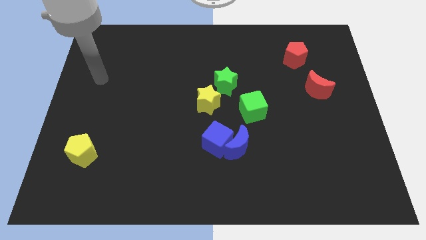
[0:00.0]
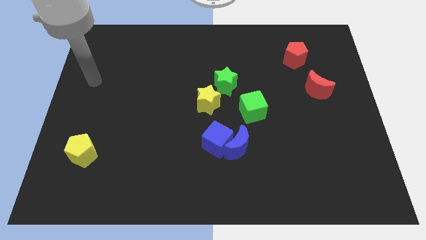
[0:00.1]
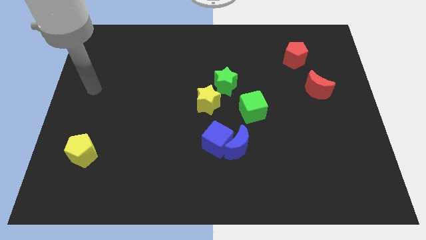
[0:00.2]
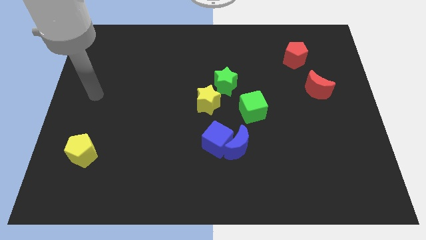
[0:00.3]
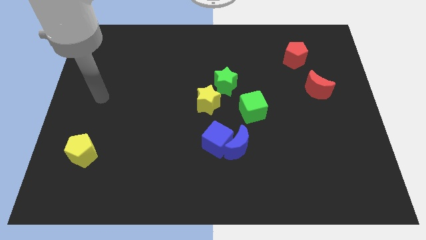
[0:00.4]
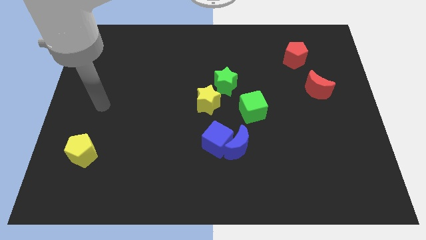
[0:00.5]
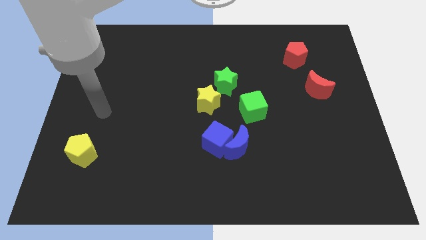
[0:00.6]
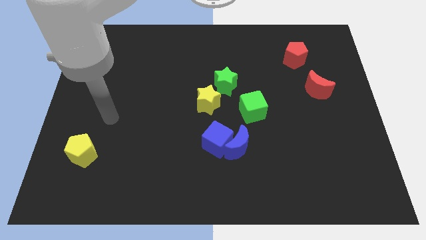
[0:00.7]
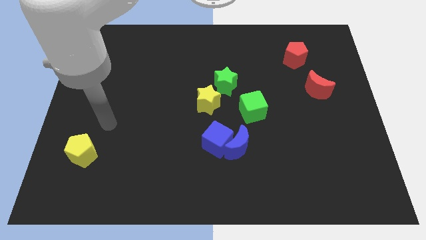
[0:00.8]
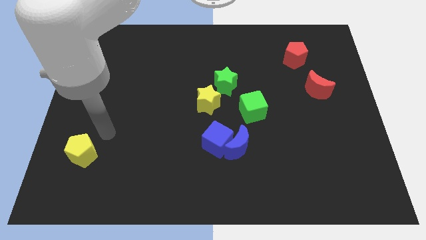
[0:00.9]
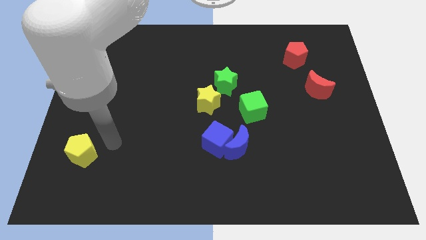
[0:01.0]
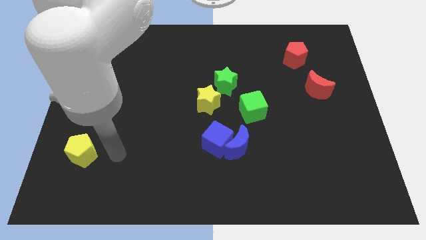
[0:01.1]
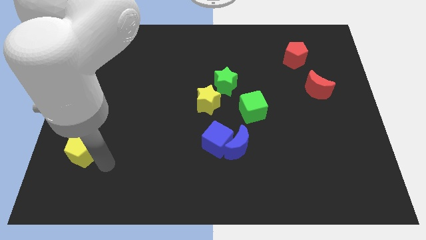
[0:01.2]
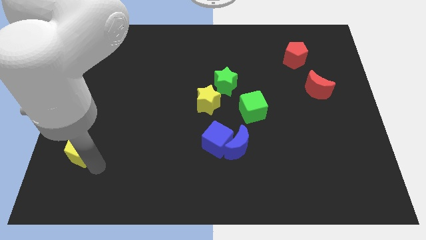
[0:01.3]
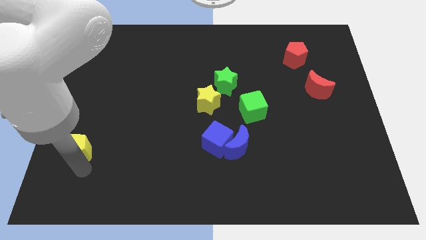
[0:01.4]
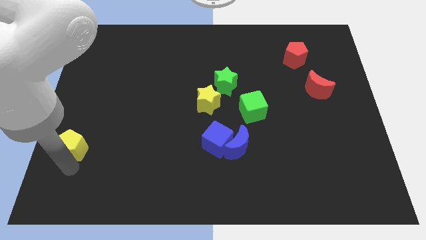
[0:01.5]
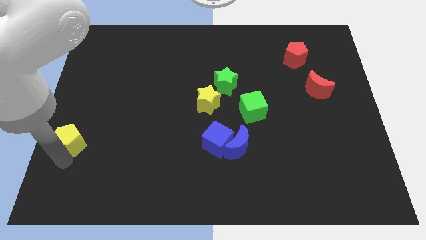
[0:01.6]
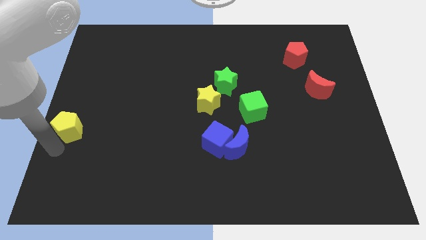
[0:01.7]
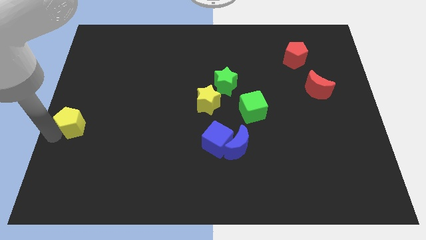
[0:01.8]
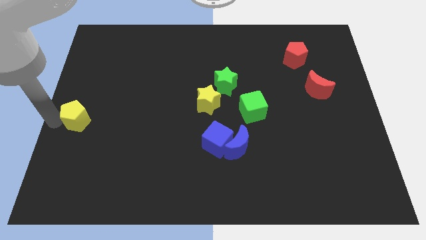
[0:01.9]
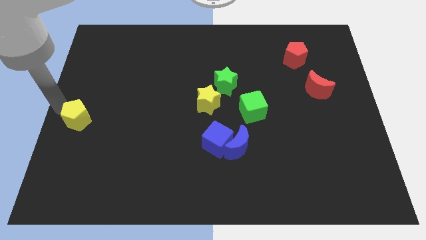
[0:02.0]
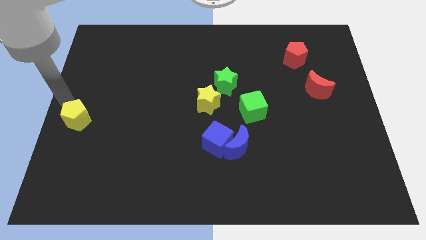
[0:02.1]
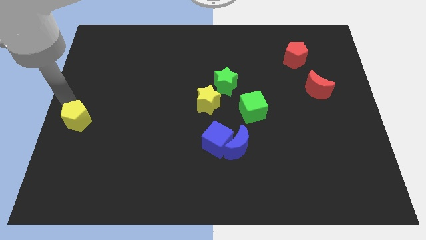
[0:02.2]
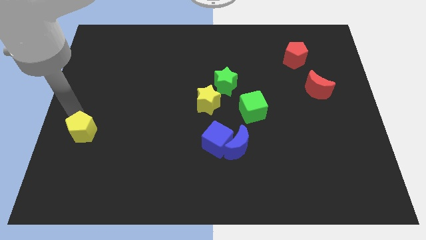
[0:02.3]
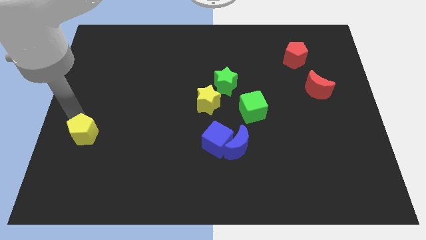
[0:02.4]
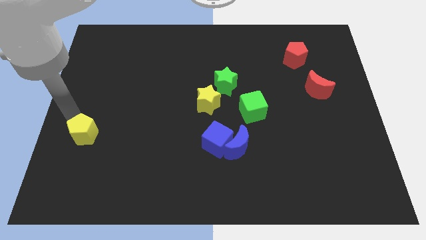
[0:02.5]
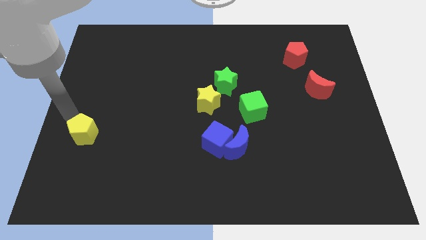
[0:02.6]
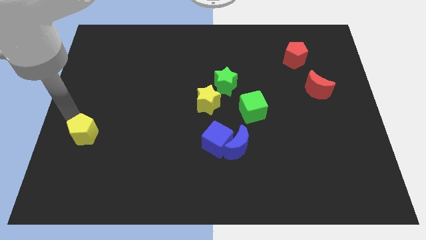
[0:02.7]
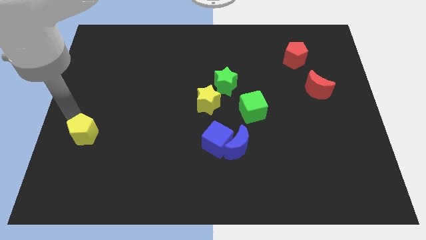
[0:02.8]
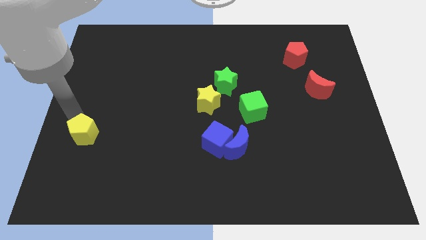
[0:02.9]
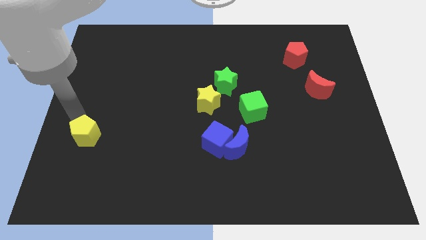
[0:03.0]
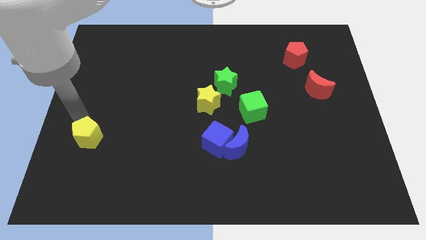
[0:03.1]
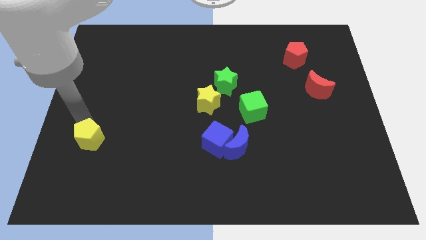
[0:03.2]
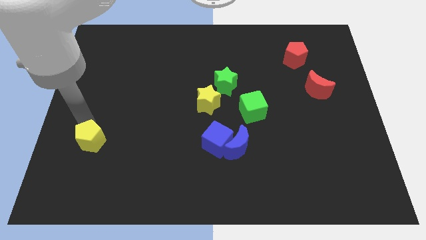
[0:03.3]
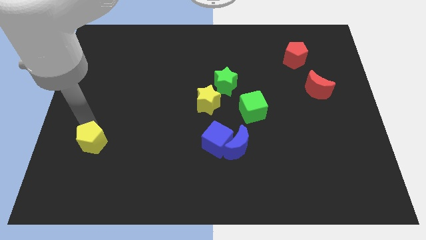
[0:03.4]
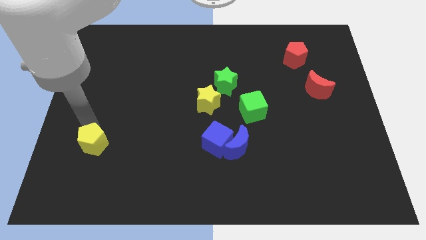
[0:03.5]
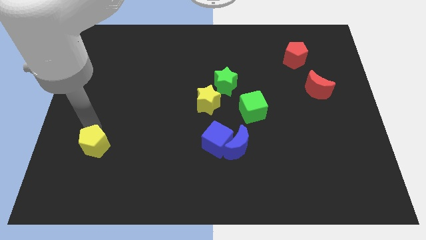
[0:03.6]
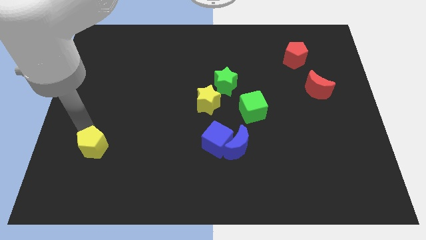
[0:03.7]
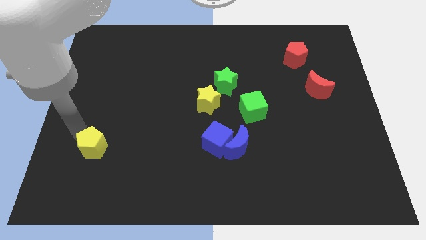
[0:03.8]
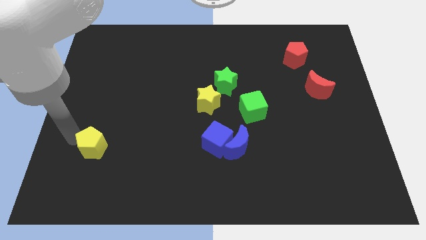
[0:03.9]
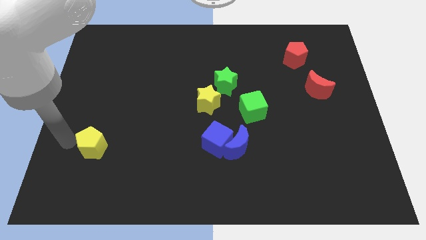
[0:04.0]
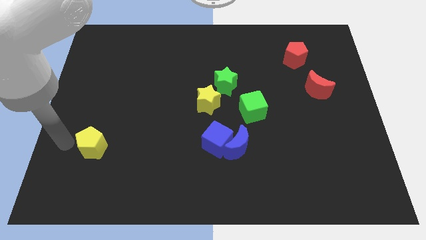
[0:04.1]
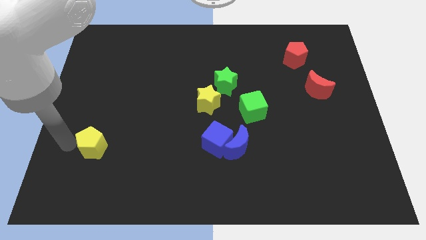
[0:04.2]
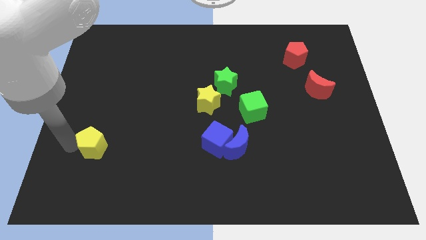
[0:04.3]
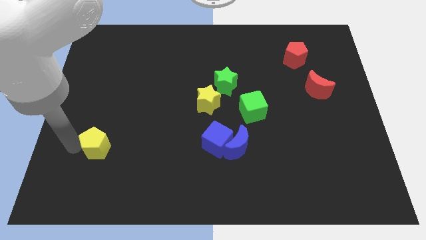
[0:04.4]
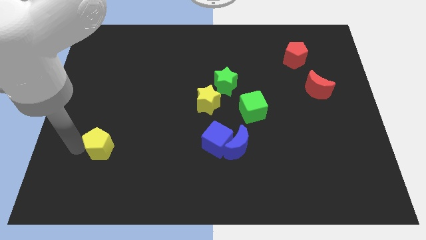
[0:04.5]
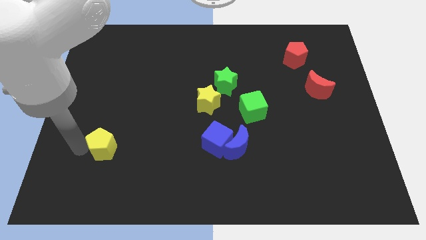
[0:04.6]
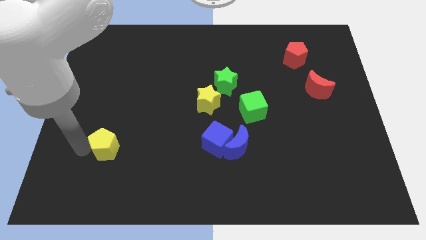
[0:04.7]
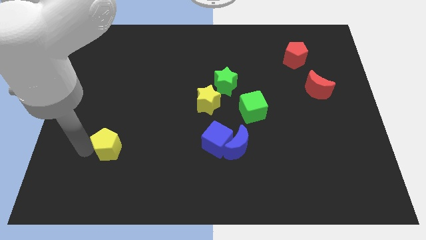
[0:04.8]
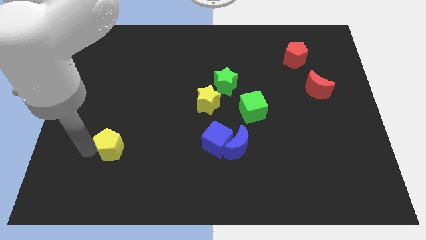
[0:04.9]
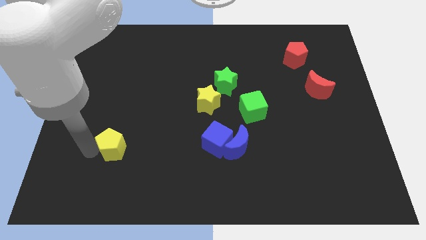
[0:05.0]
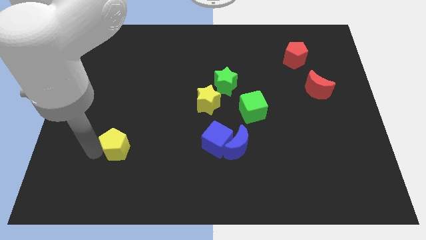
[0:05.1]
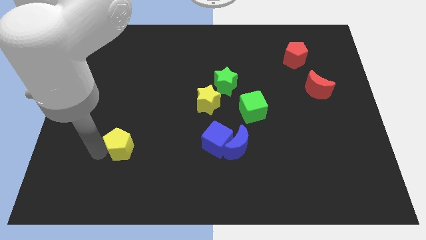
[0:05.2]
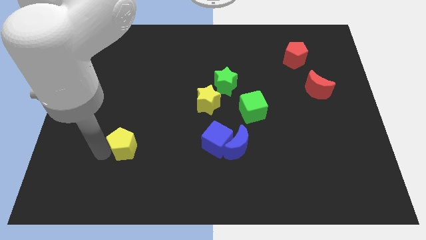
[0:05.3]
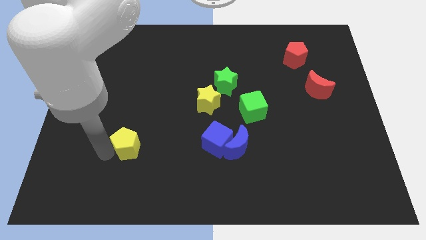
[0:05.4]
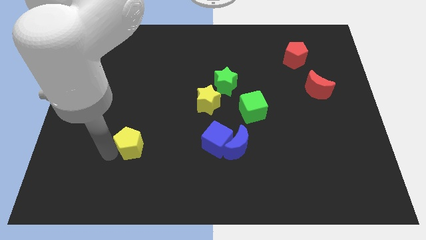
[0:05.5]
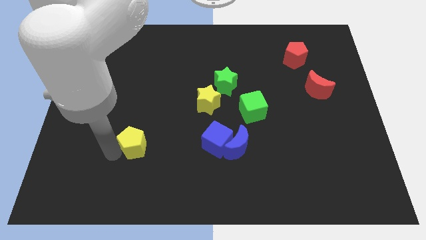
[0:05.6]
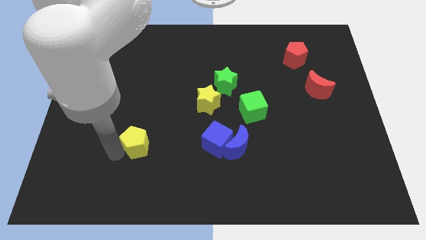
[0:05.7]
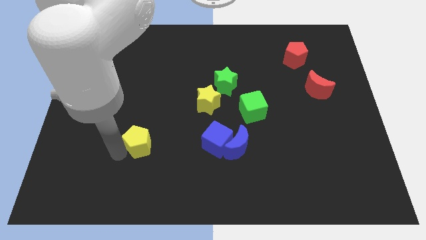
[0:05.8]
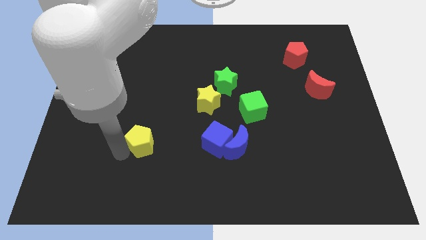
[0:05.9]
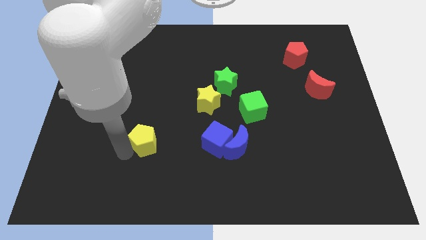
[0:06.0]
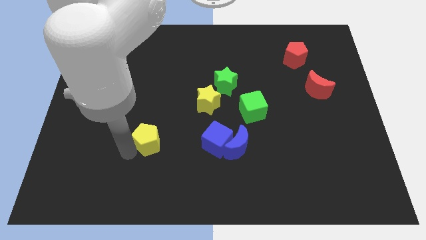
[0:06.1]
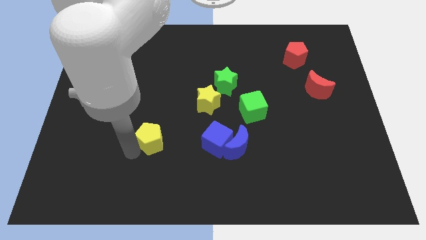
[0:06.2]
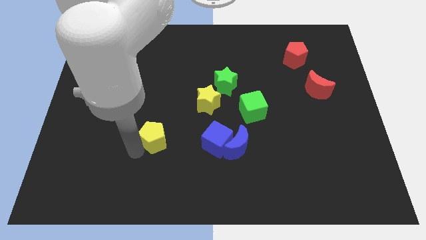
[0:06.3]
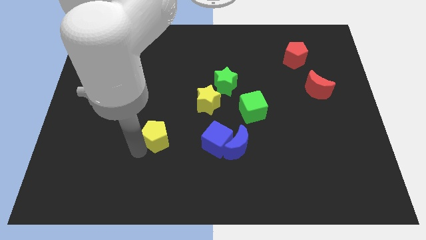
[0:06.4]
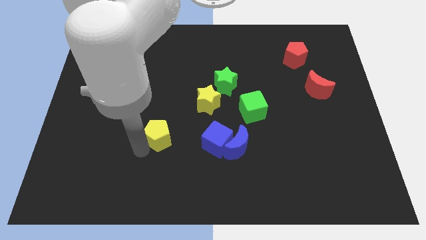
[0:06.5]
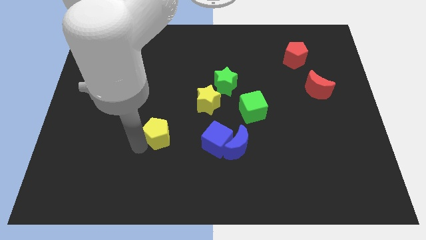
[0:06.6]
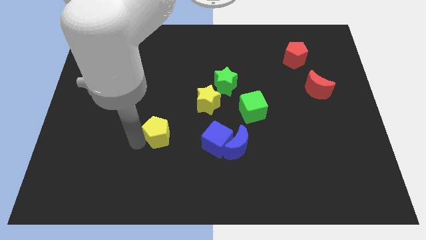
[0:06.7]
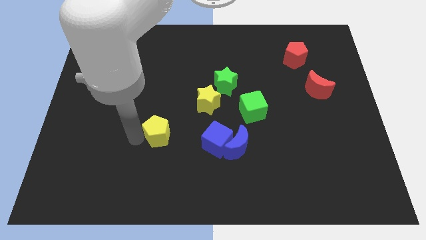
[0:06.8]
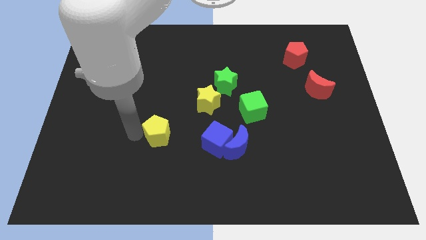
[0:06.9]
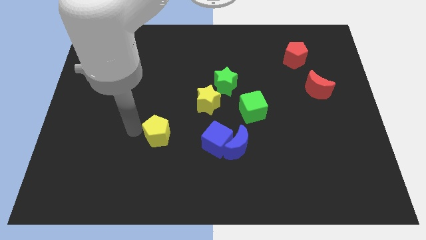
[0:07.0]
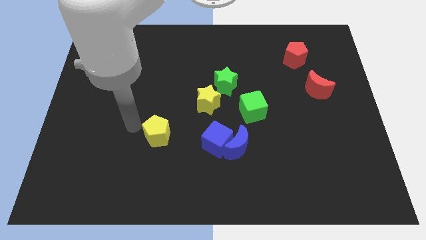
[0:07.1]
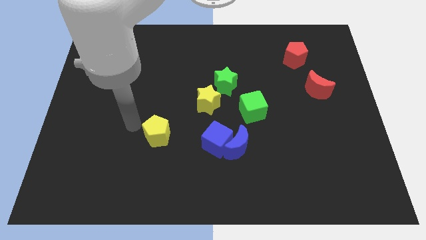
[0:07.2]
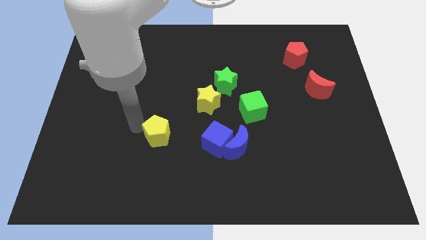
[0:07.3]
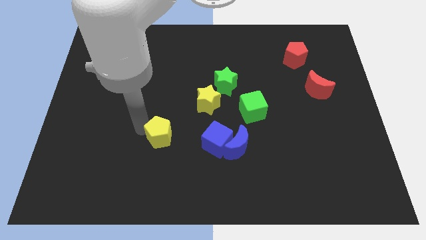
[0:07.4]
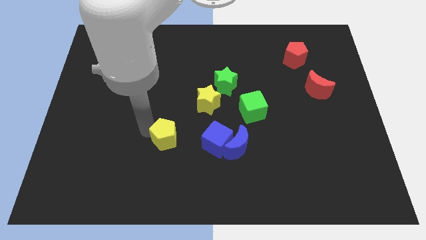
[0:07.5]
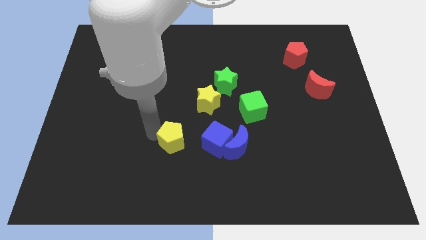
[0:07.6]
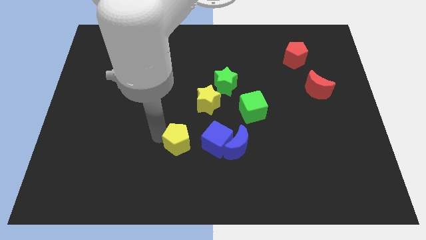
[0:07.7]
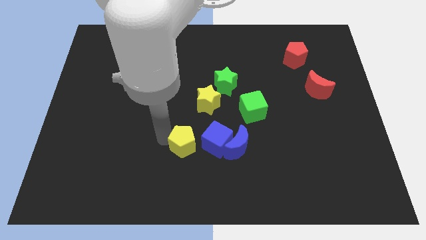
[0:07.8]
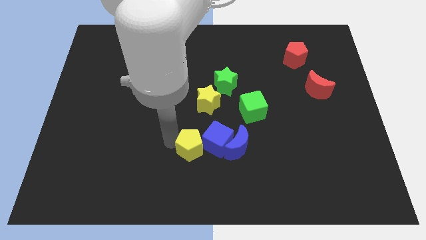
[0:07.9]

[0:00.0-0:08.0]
move the yellow pentagon next to the blue cube

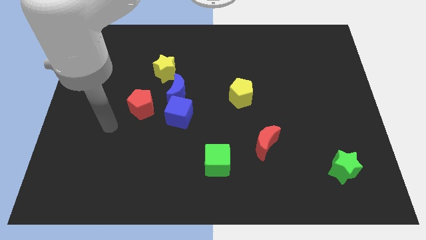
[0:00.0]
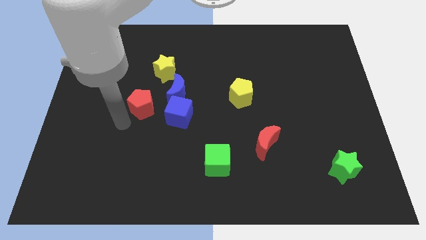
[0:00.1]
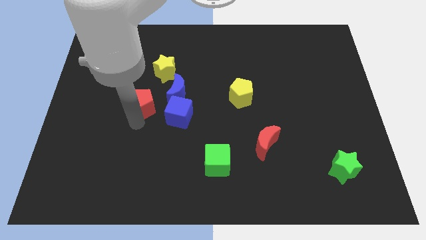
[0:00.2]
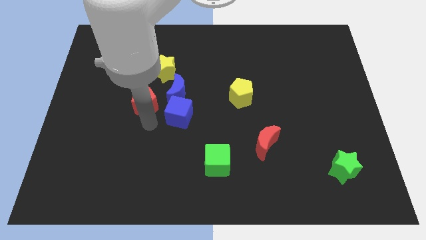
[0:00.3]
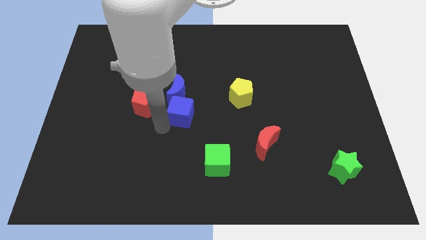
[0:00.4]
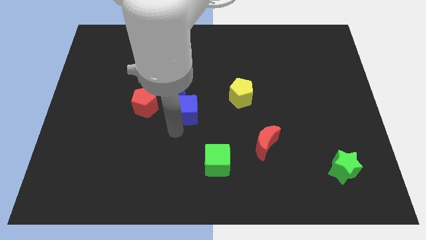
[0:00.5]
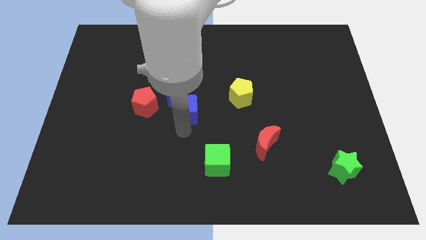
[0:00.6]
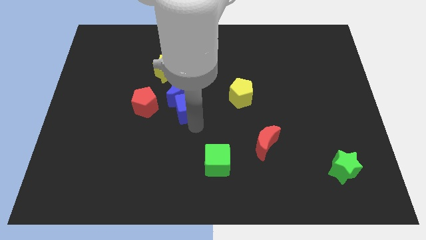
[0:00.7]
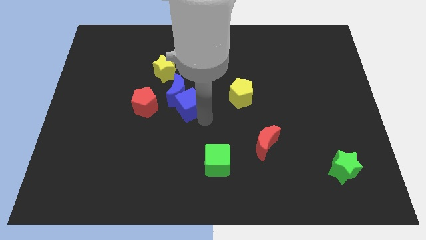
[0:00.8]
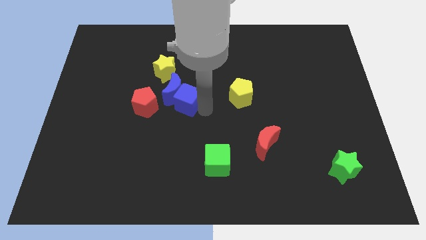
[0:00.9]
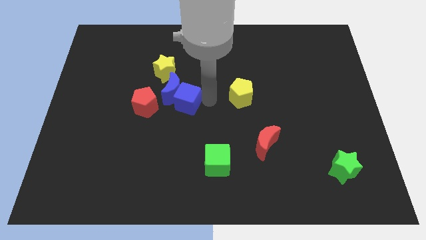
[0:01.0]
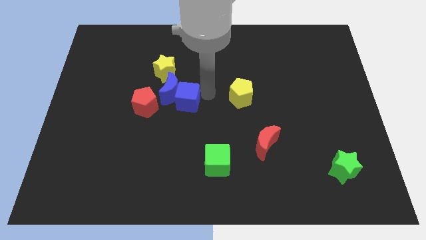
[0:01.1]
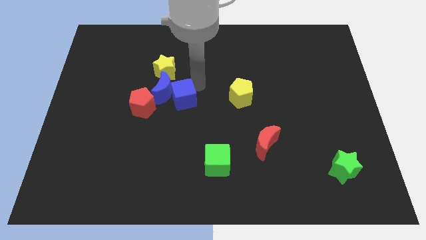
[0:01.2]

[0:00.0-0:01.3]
push the blue moon close to the red pentagon
